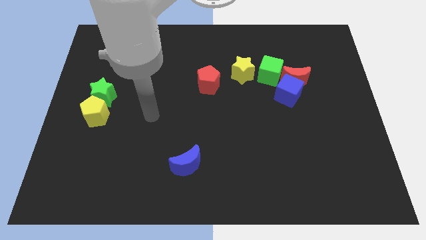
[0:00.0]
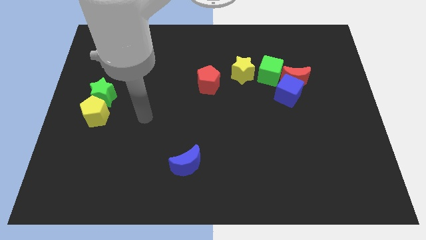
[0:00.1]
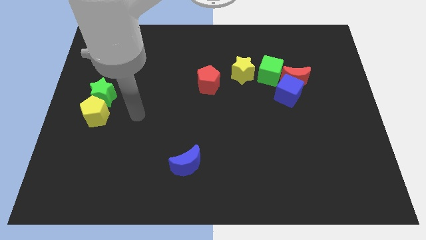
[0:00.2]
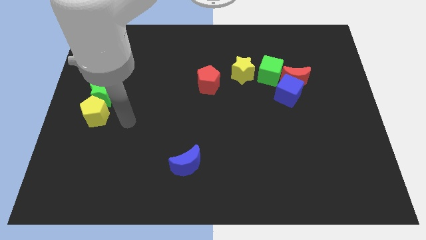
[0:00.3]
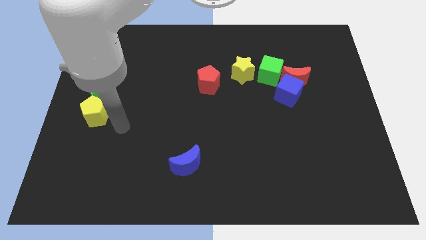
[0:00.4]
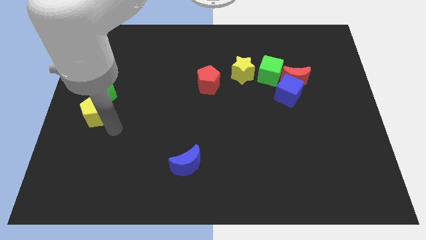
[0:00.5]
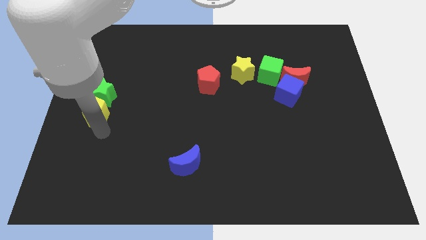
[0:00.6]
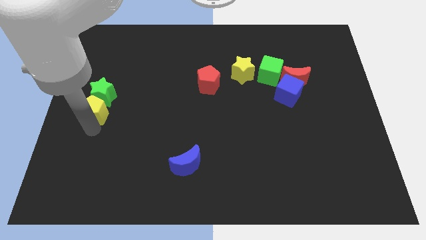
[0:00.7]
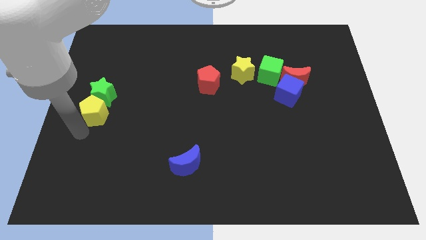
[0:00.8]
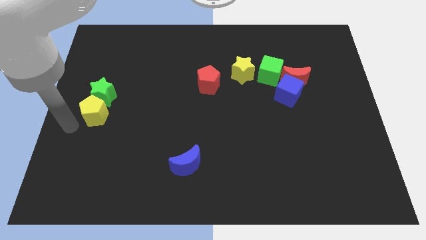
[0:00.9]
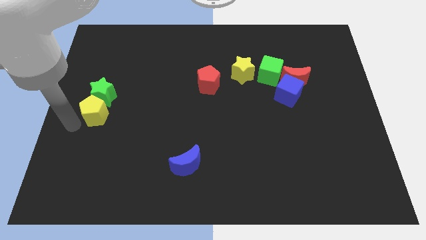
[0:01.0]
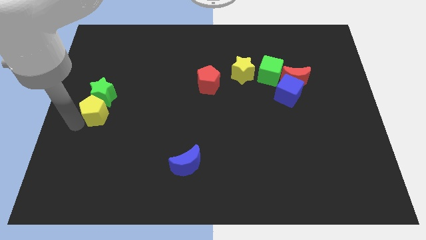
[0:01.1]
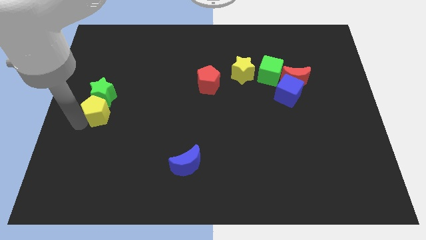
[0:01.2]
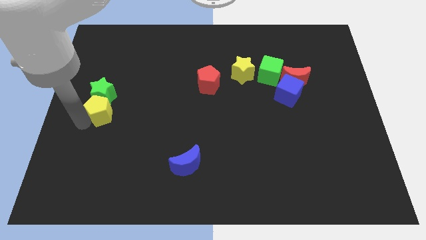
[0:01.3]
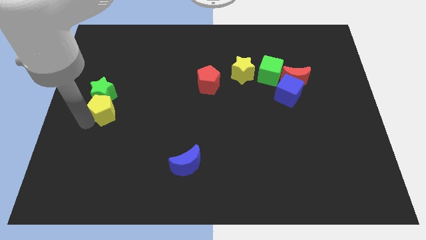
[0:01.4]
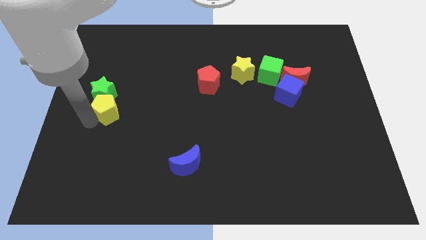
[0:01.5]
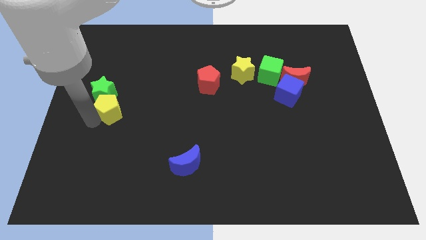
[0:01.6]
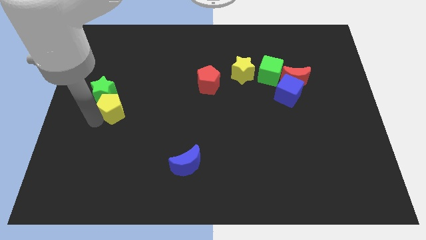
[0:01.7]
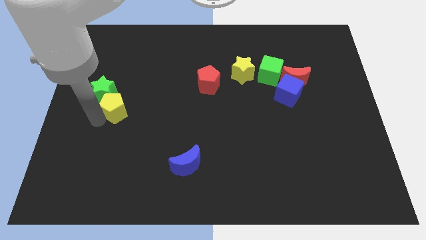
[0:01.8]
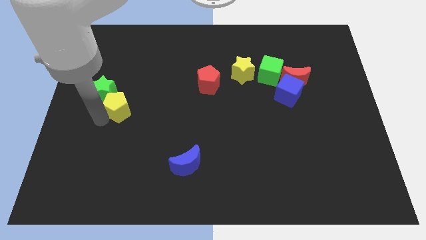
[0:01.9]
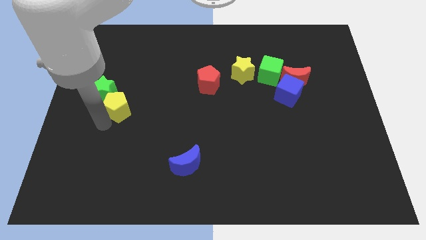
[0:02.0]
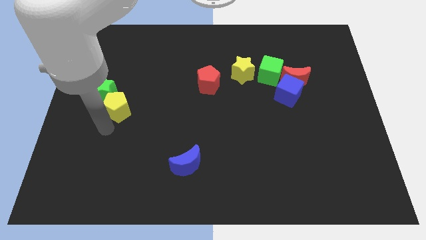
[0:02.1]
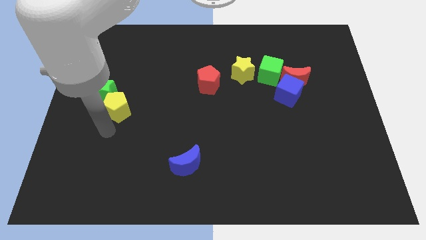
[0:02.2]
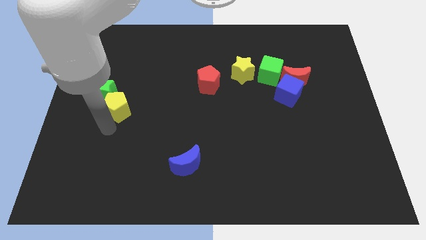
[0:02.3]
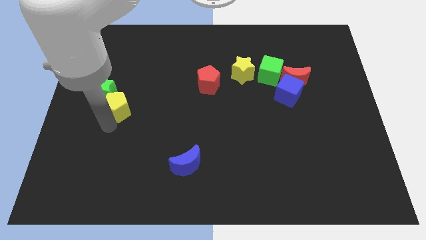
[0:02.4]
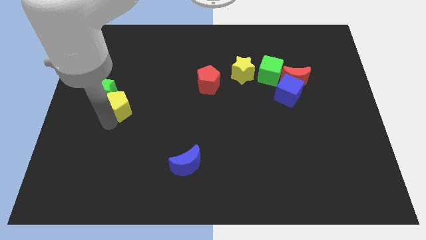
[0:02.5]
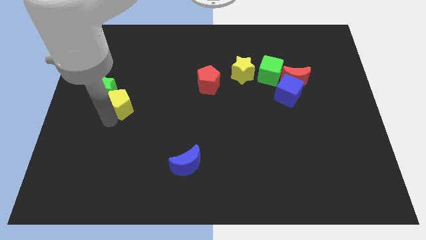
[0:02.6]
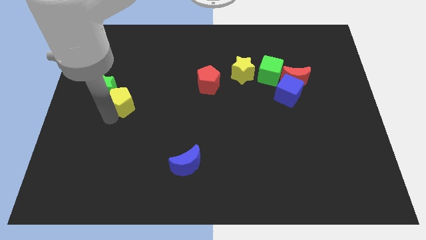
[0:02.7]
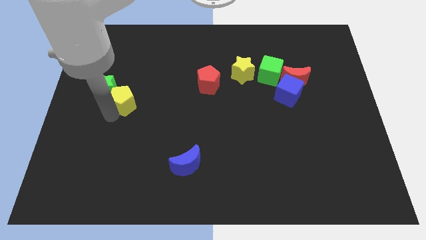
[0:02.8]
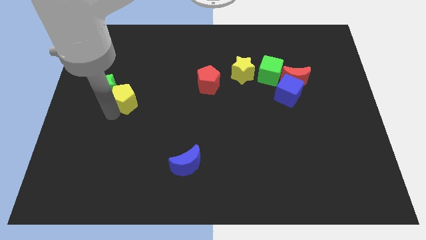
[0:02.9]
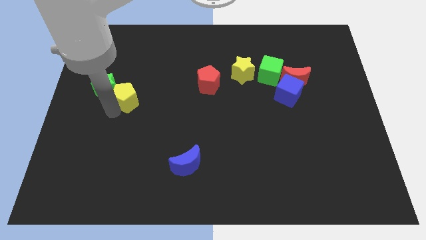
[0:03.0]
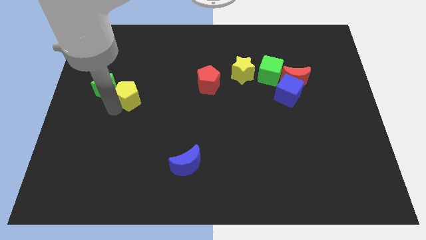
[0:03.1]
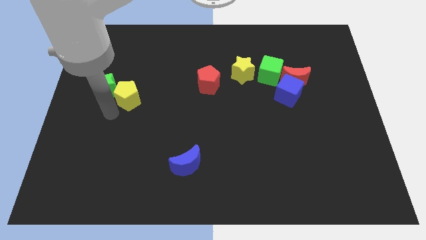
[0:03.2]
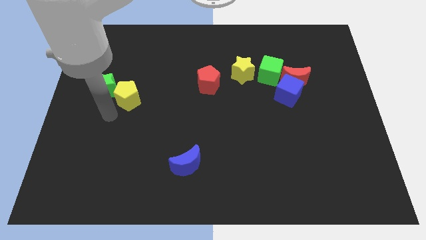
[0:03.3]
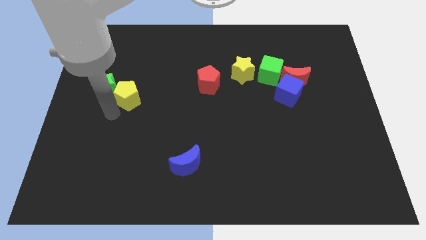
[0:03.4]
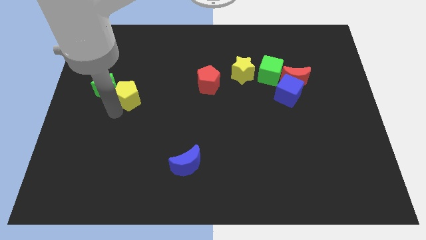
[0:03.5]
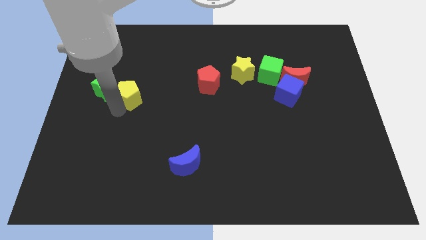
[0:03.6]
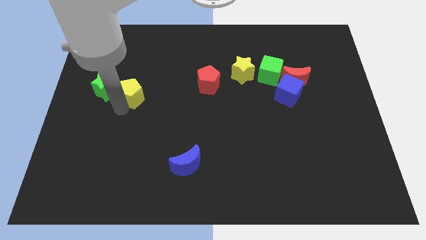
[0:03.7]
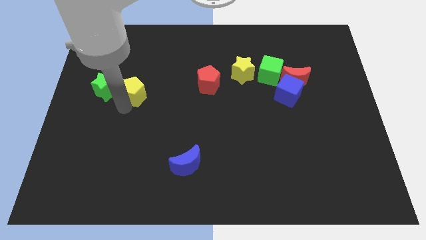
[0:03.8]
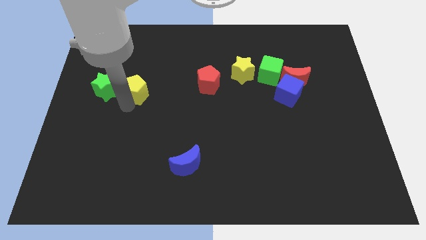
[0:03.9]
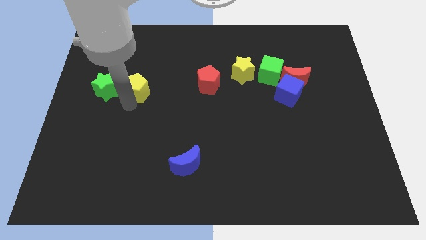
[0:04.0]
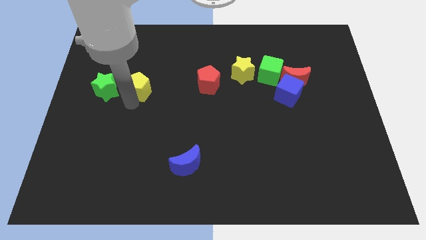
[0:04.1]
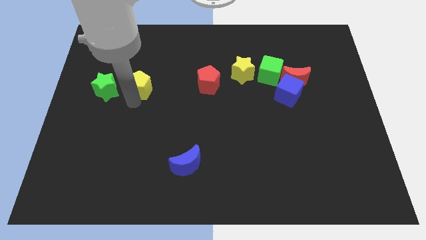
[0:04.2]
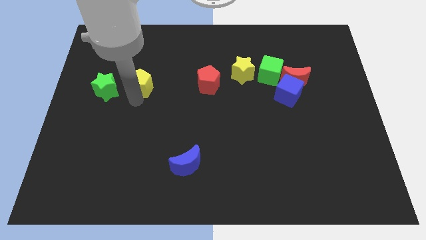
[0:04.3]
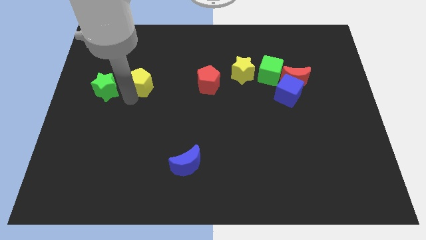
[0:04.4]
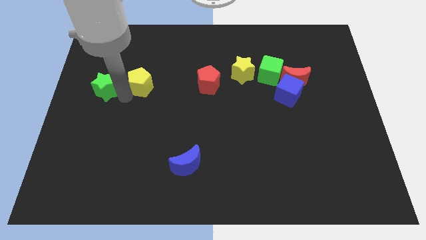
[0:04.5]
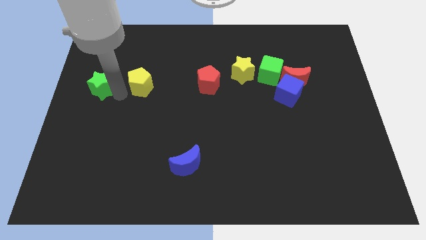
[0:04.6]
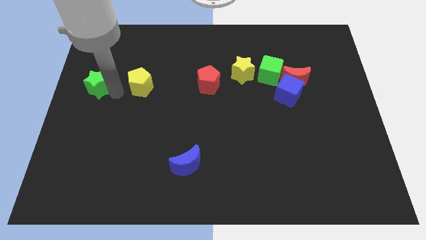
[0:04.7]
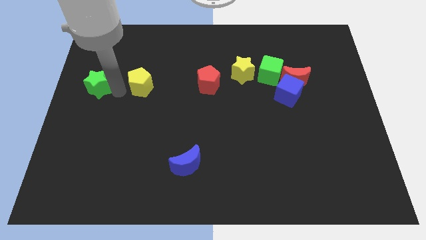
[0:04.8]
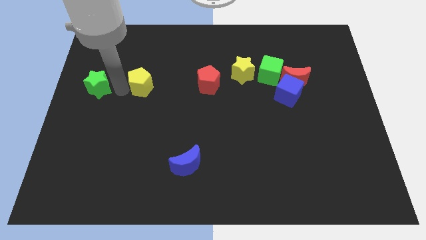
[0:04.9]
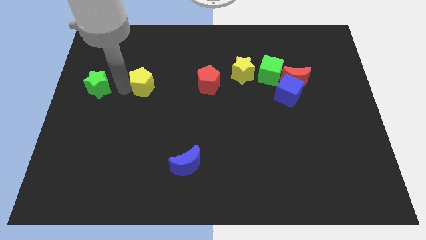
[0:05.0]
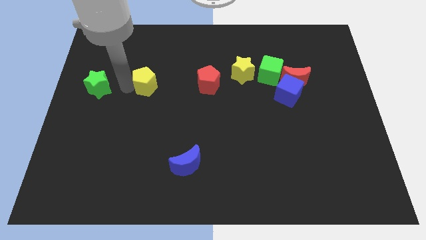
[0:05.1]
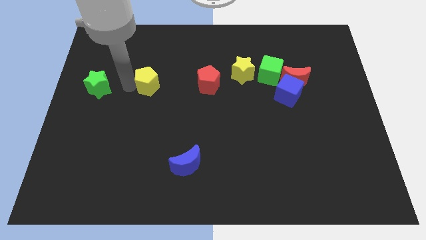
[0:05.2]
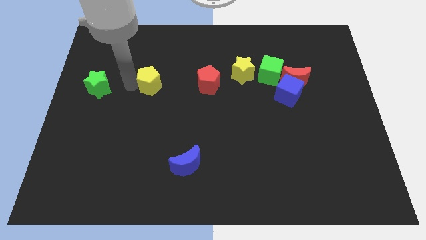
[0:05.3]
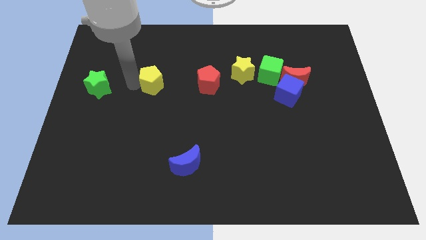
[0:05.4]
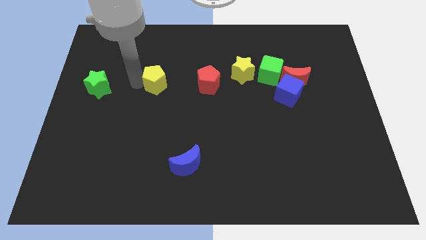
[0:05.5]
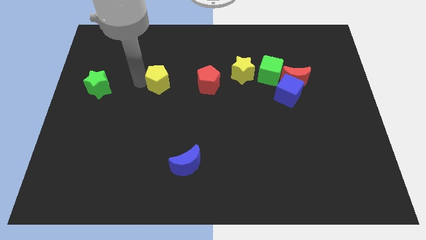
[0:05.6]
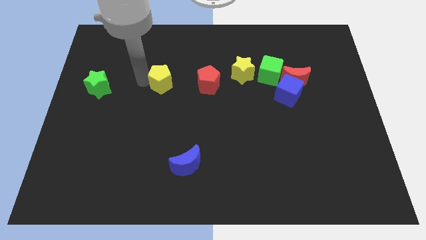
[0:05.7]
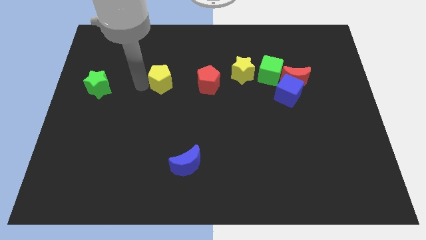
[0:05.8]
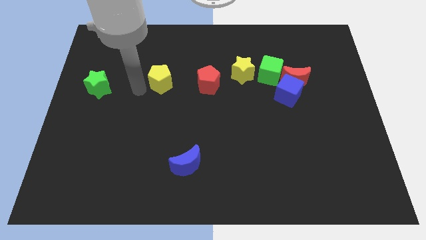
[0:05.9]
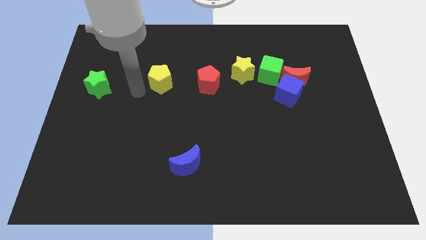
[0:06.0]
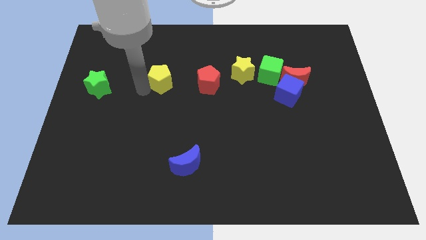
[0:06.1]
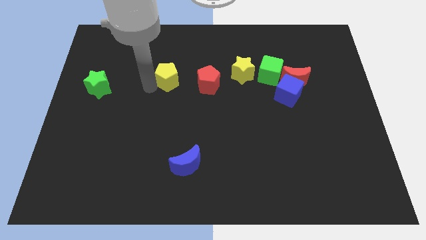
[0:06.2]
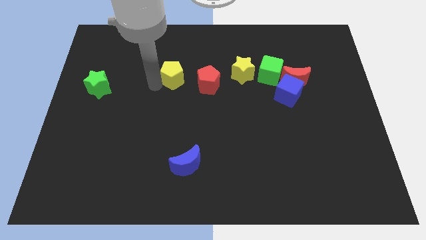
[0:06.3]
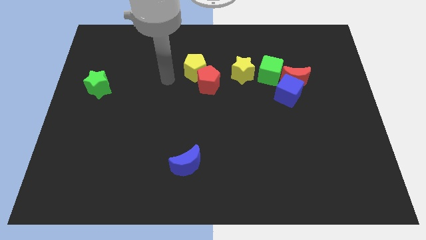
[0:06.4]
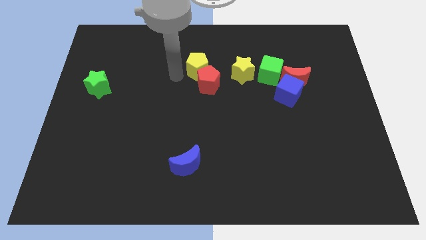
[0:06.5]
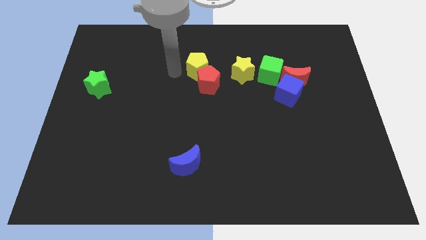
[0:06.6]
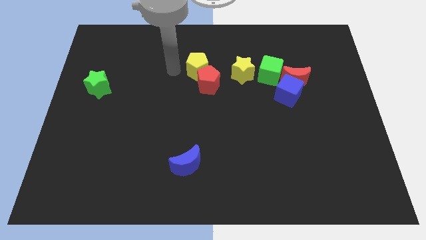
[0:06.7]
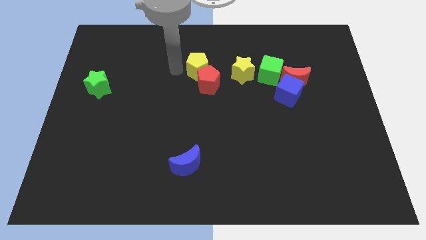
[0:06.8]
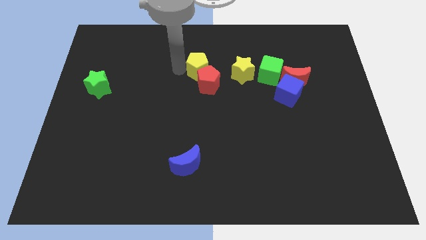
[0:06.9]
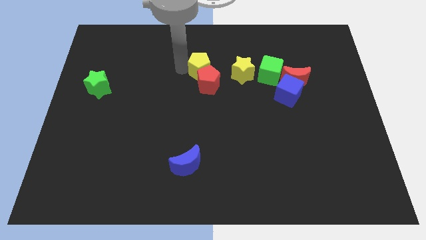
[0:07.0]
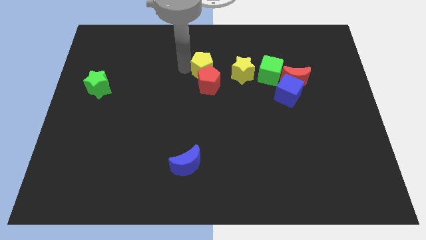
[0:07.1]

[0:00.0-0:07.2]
move the yellow pentagon diagonally up and to the right of the red pentagon
